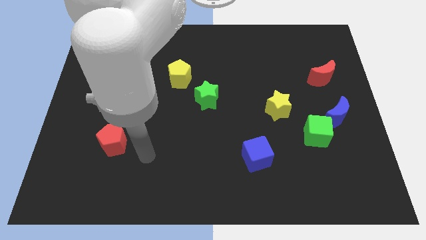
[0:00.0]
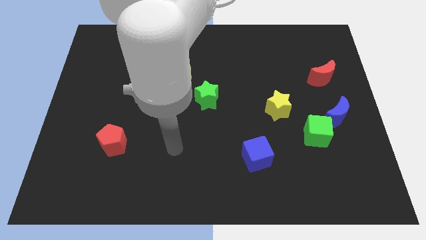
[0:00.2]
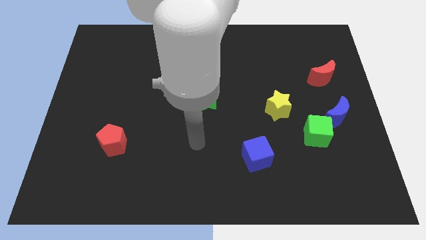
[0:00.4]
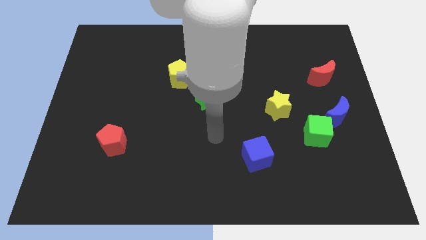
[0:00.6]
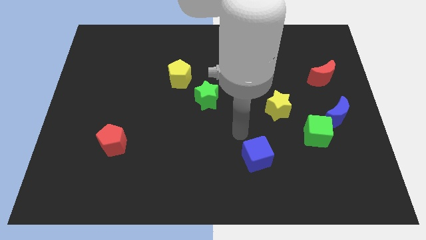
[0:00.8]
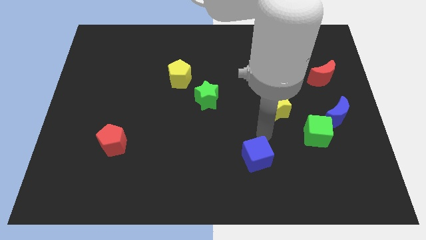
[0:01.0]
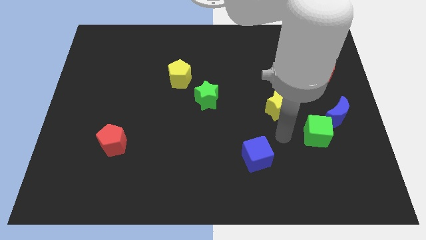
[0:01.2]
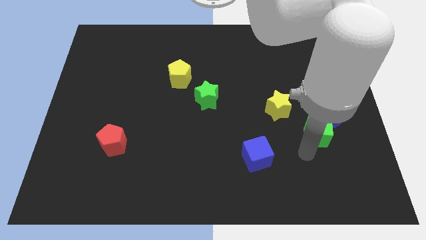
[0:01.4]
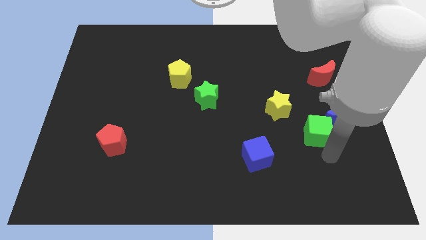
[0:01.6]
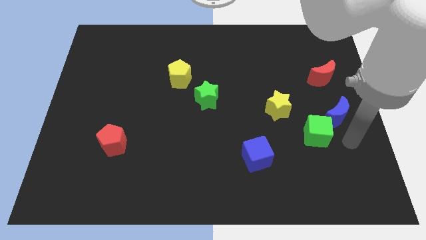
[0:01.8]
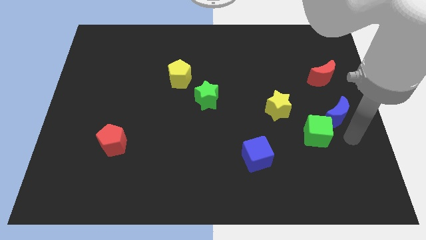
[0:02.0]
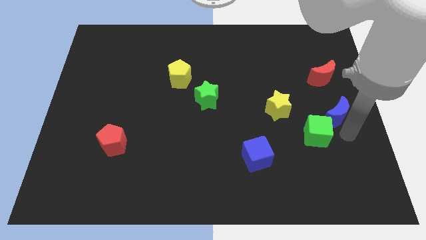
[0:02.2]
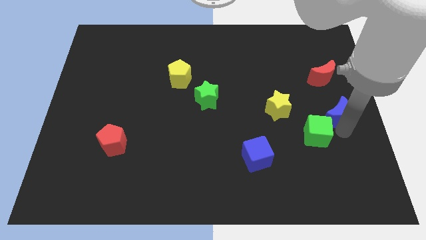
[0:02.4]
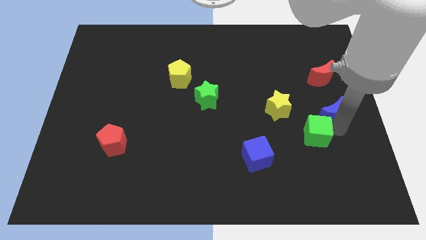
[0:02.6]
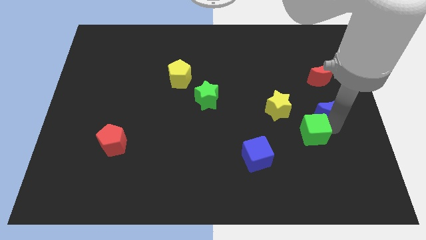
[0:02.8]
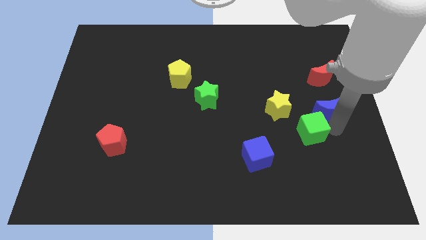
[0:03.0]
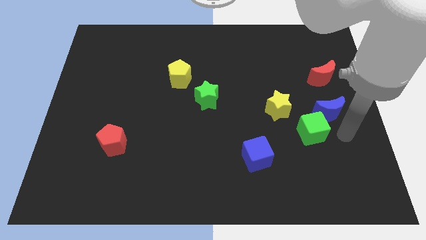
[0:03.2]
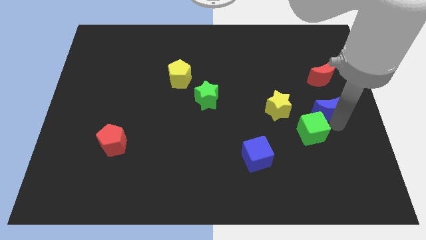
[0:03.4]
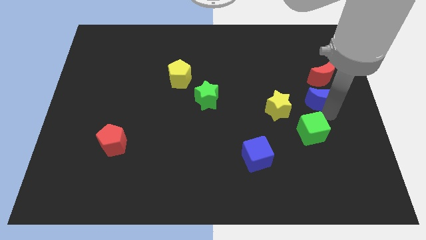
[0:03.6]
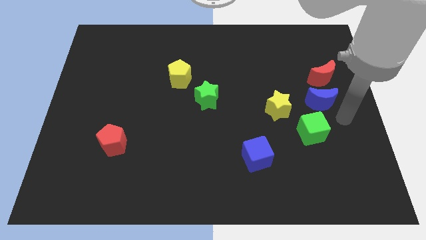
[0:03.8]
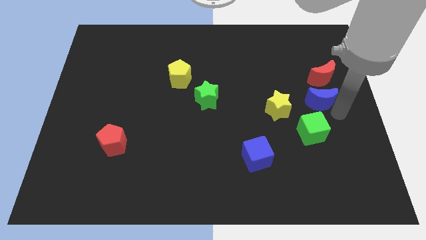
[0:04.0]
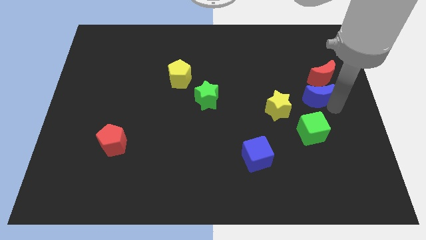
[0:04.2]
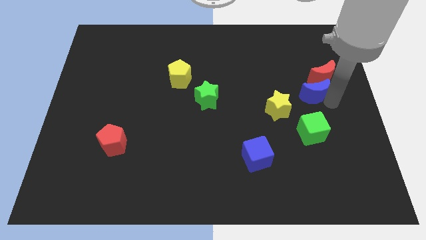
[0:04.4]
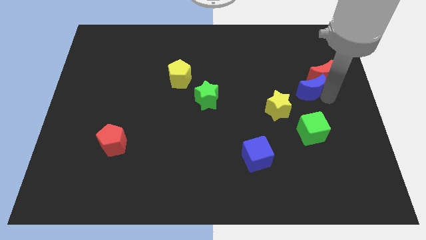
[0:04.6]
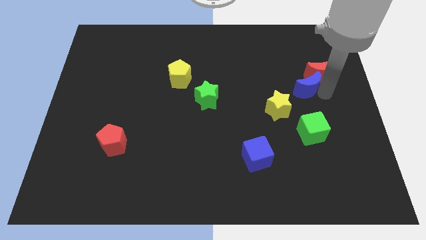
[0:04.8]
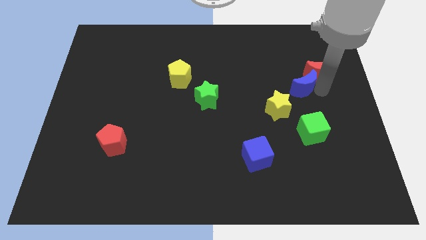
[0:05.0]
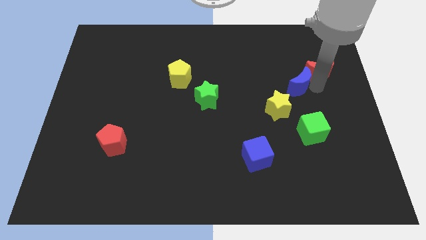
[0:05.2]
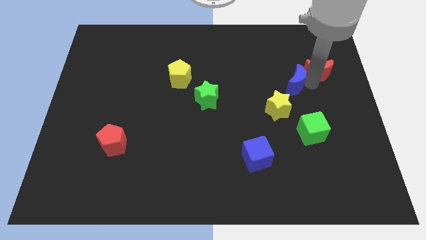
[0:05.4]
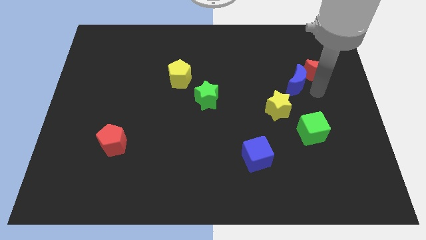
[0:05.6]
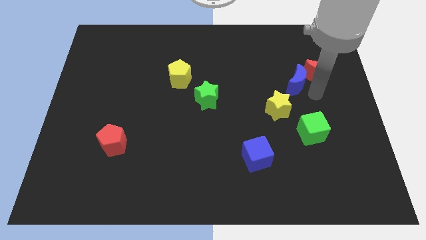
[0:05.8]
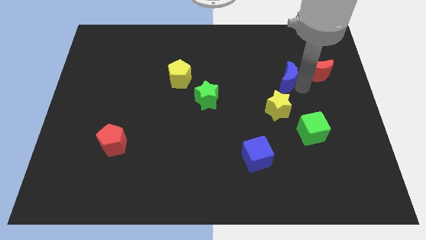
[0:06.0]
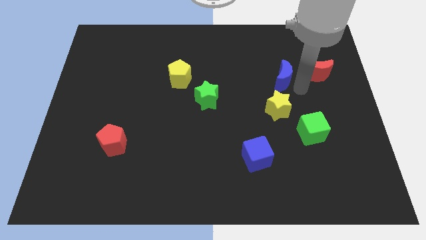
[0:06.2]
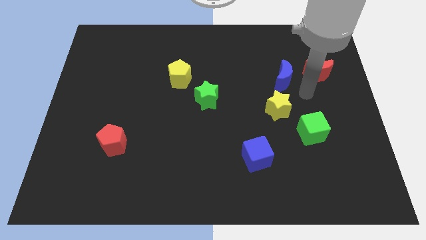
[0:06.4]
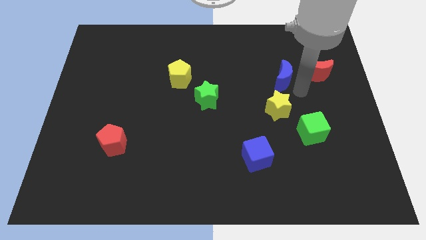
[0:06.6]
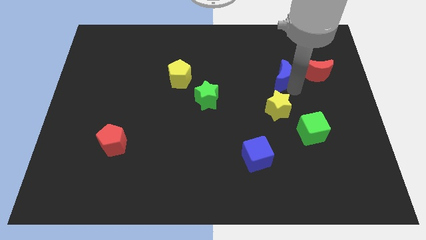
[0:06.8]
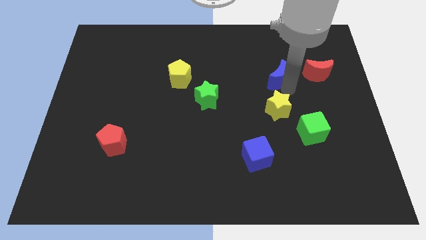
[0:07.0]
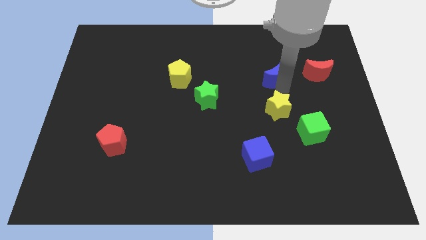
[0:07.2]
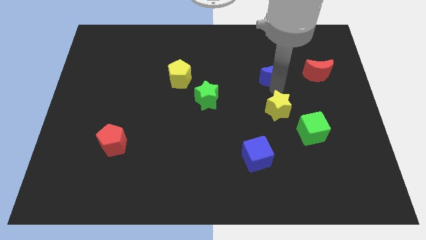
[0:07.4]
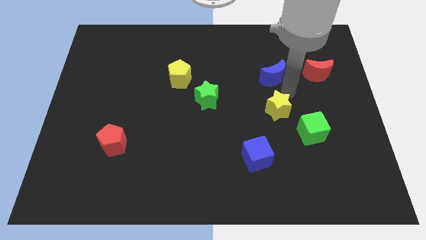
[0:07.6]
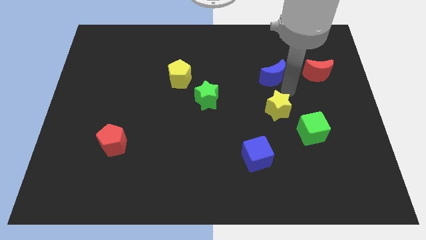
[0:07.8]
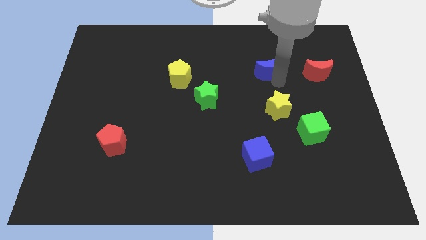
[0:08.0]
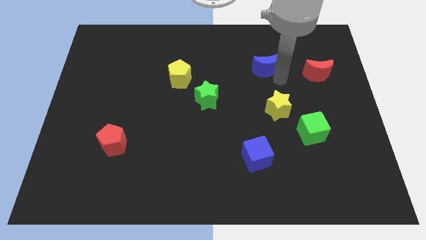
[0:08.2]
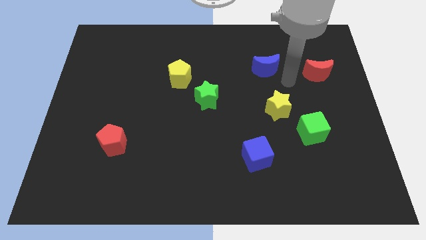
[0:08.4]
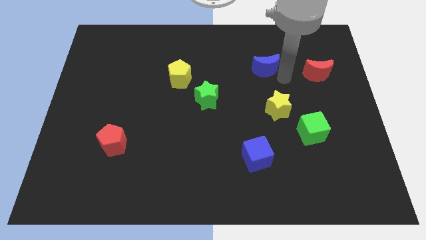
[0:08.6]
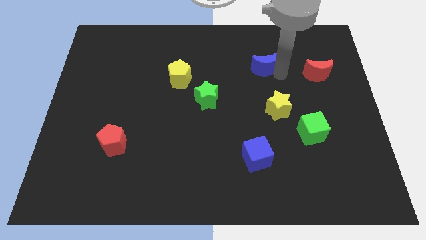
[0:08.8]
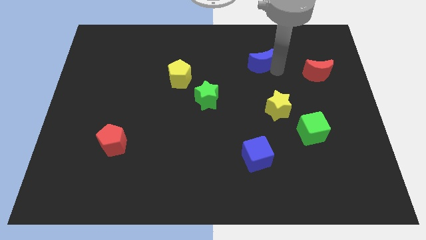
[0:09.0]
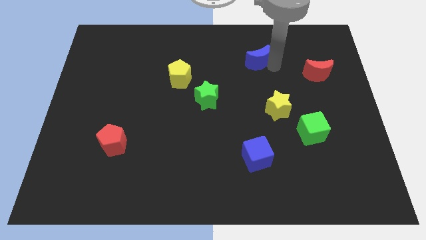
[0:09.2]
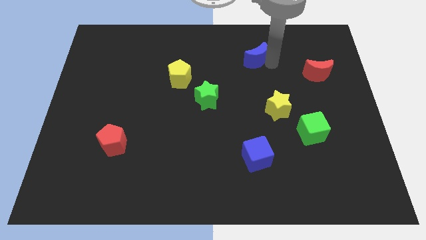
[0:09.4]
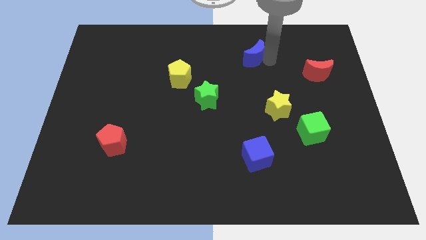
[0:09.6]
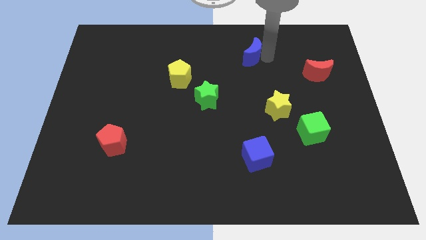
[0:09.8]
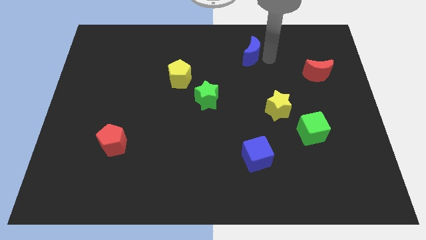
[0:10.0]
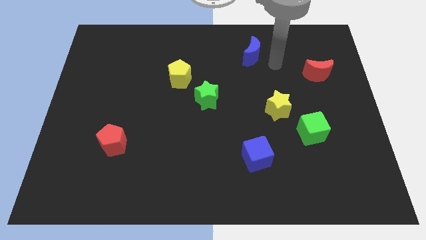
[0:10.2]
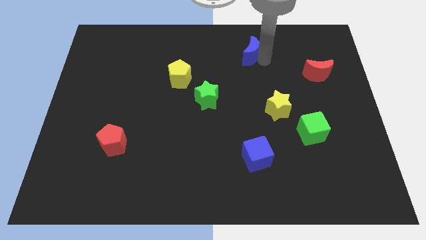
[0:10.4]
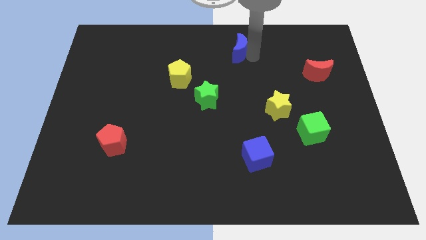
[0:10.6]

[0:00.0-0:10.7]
put the blue moon to the towards your base

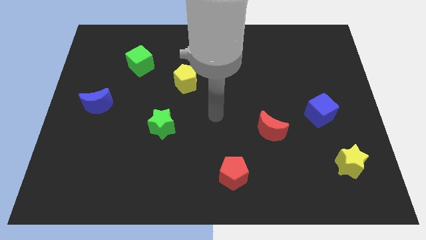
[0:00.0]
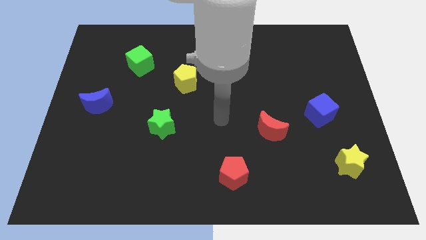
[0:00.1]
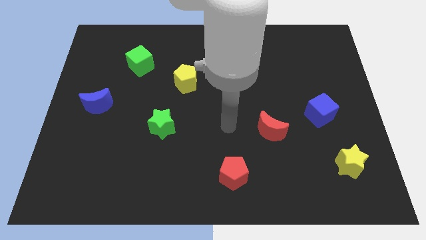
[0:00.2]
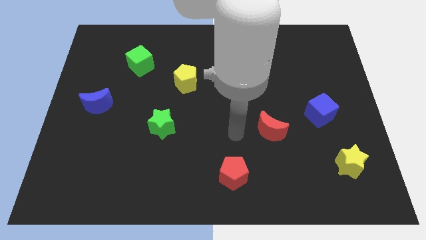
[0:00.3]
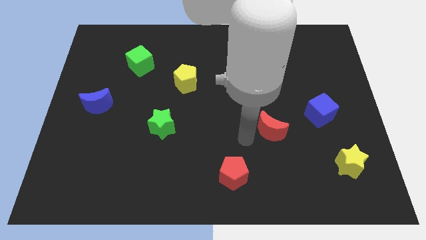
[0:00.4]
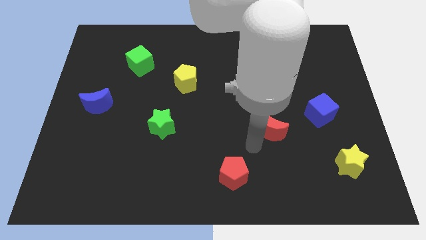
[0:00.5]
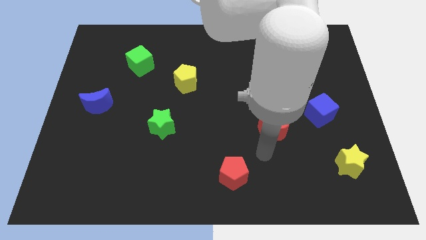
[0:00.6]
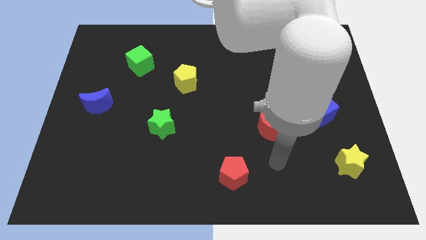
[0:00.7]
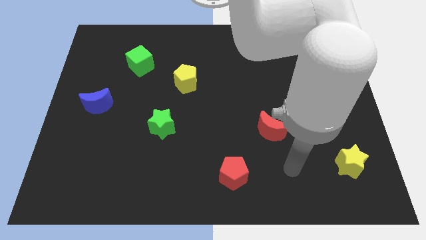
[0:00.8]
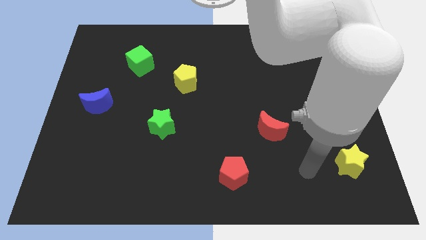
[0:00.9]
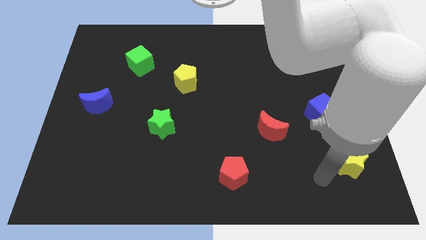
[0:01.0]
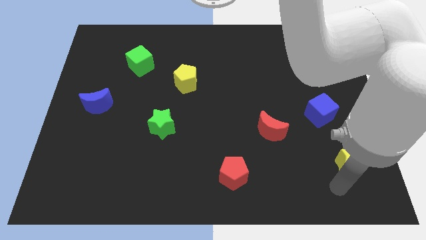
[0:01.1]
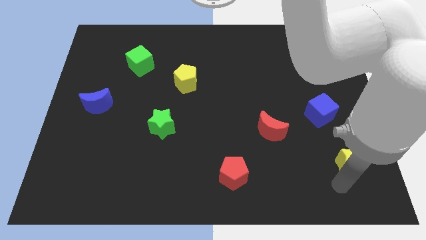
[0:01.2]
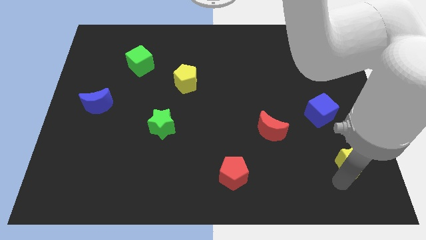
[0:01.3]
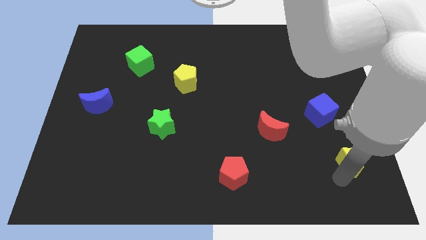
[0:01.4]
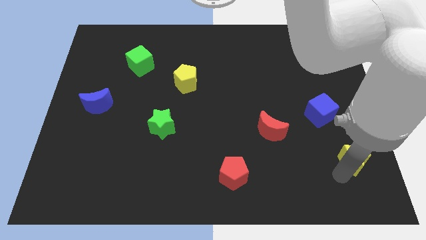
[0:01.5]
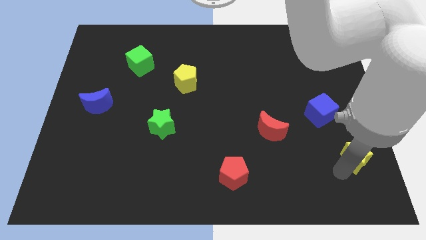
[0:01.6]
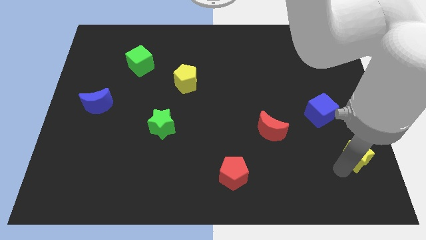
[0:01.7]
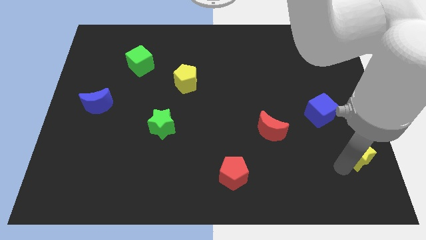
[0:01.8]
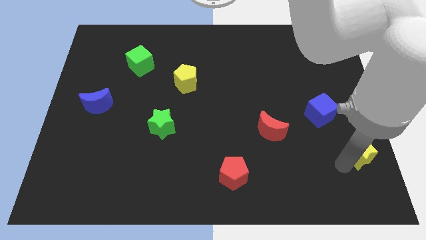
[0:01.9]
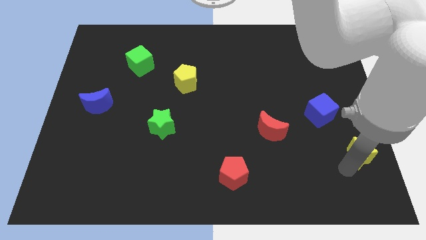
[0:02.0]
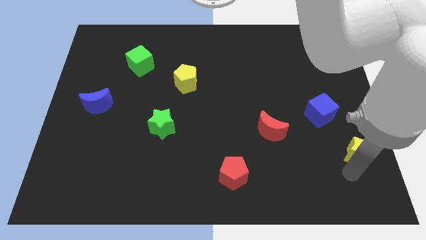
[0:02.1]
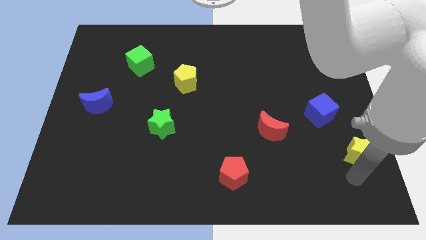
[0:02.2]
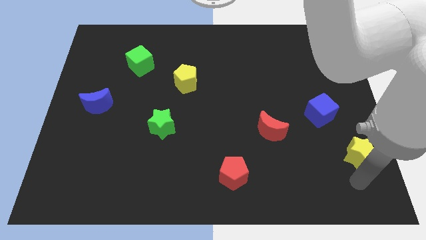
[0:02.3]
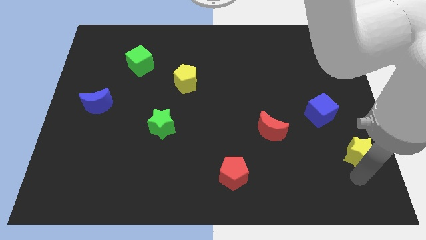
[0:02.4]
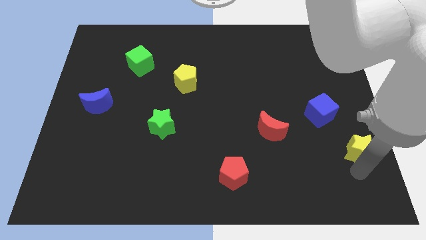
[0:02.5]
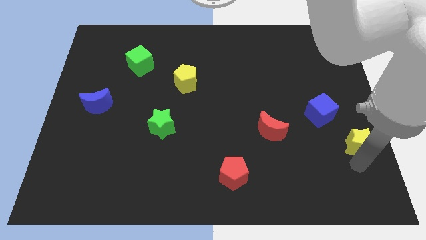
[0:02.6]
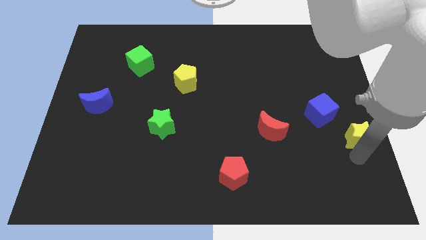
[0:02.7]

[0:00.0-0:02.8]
slide the yellow star to the right side
